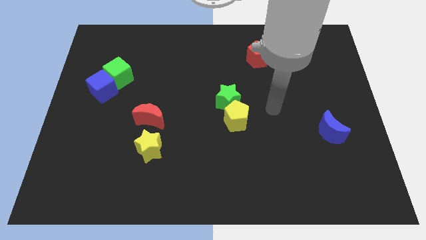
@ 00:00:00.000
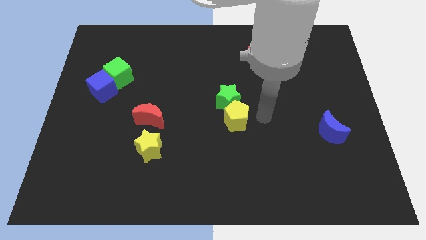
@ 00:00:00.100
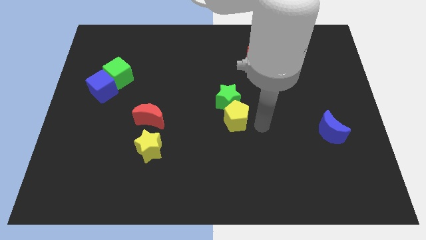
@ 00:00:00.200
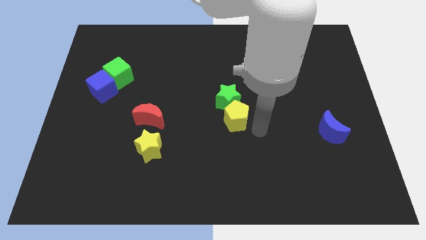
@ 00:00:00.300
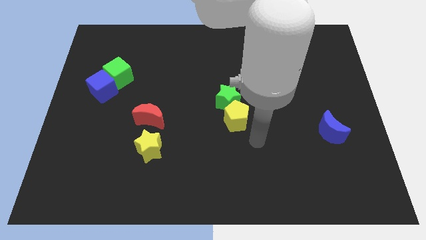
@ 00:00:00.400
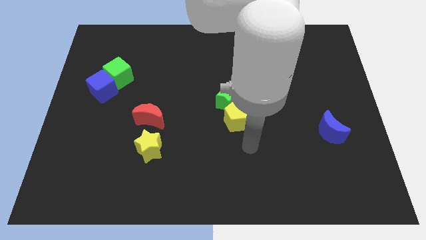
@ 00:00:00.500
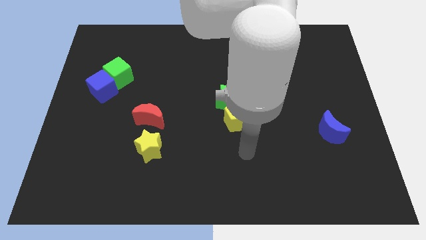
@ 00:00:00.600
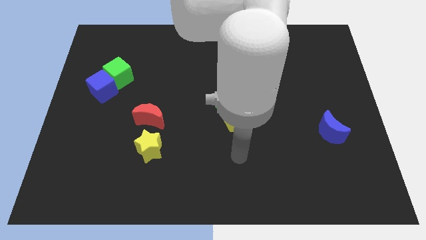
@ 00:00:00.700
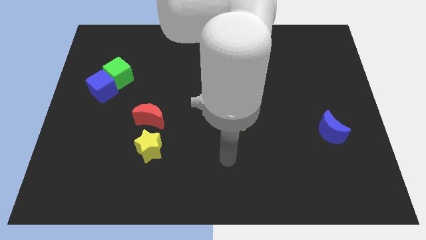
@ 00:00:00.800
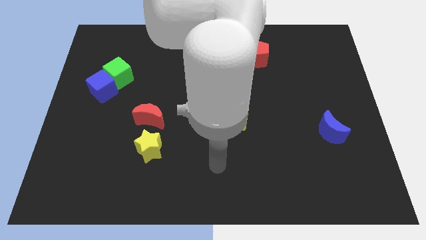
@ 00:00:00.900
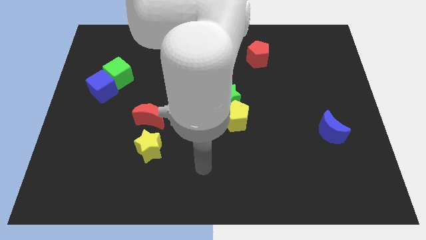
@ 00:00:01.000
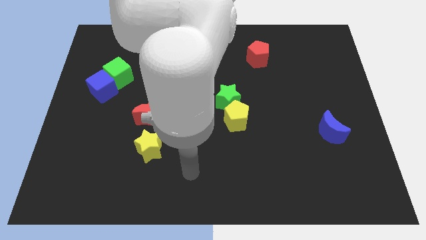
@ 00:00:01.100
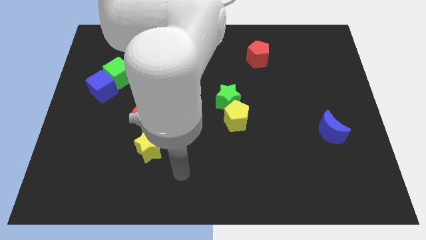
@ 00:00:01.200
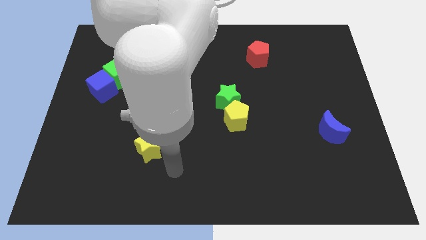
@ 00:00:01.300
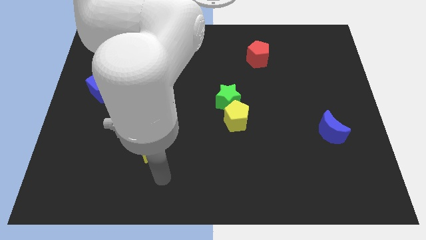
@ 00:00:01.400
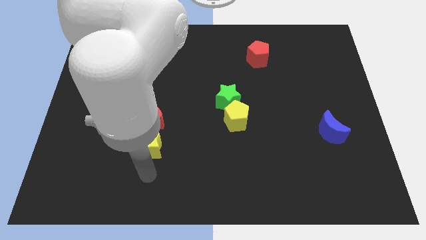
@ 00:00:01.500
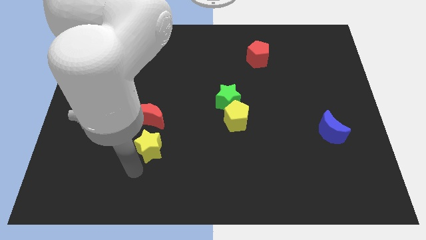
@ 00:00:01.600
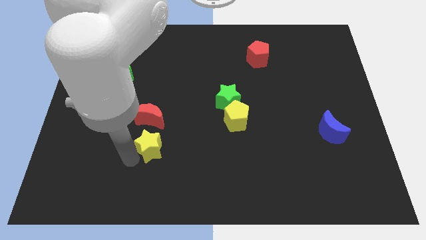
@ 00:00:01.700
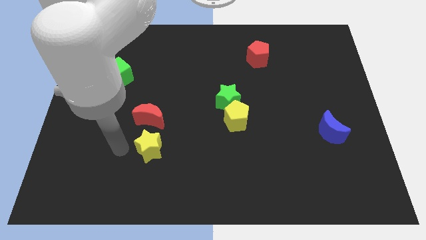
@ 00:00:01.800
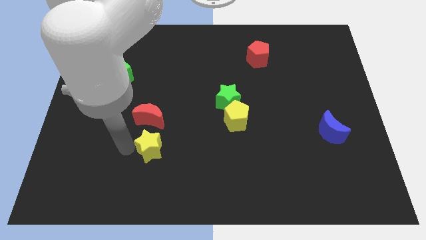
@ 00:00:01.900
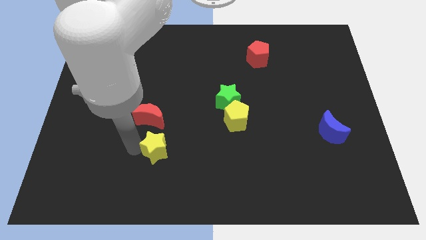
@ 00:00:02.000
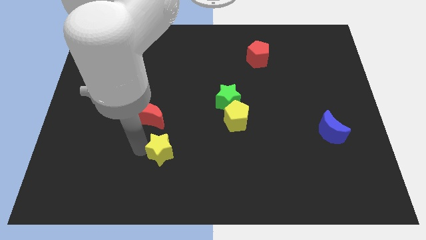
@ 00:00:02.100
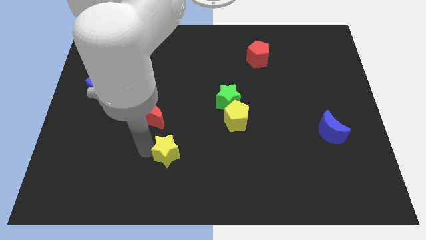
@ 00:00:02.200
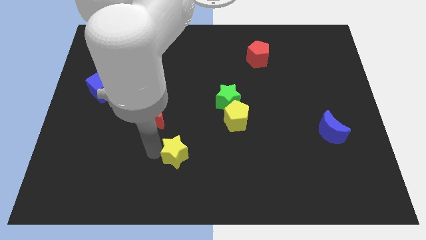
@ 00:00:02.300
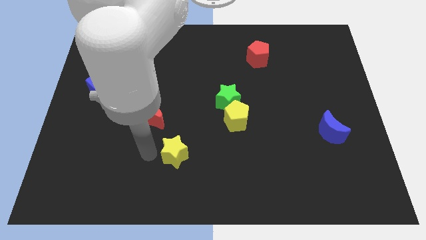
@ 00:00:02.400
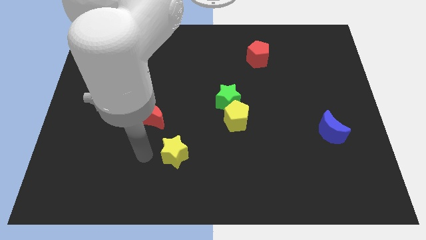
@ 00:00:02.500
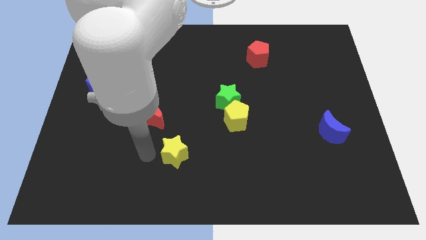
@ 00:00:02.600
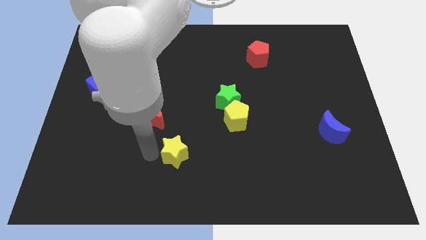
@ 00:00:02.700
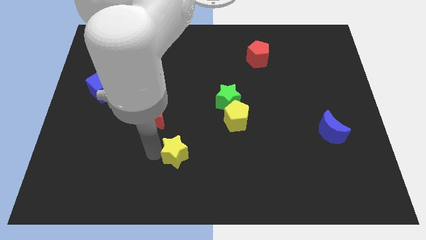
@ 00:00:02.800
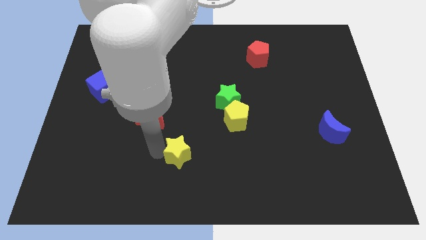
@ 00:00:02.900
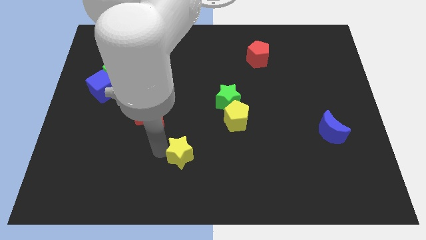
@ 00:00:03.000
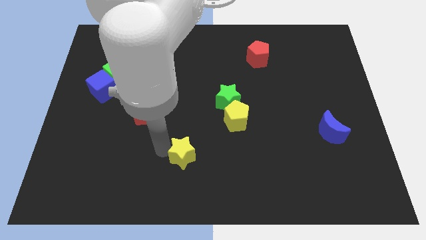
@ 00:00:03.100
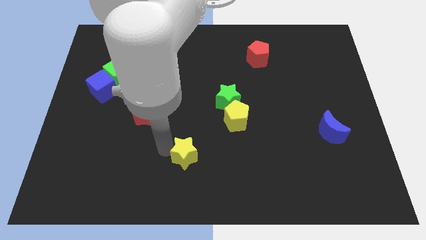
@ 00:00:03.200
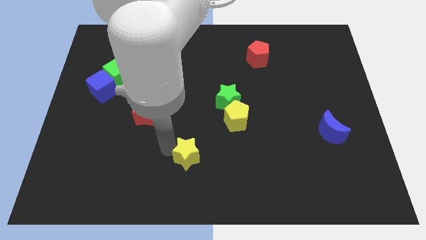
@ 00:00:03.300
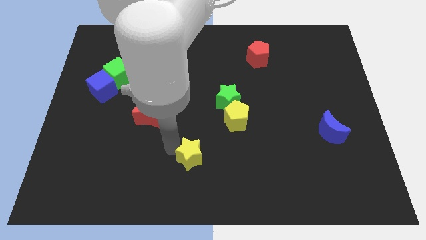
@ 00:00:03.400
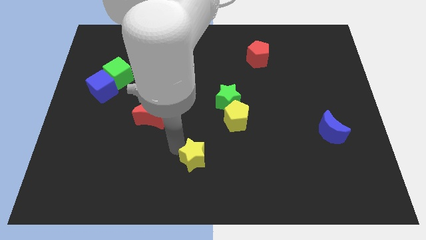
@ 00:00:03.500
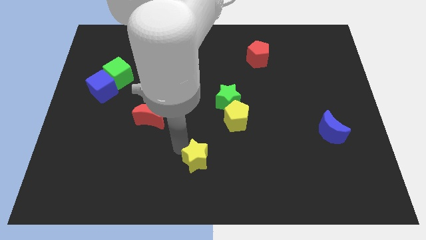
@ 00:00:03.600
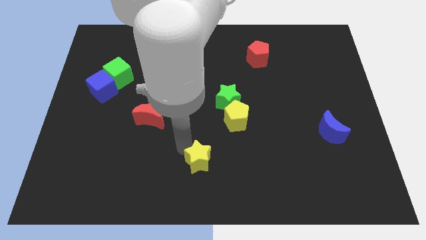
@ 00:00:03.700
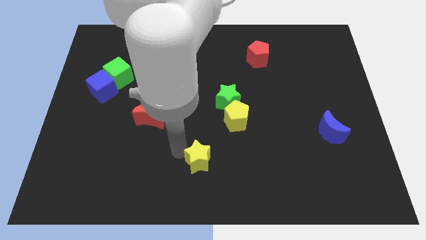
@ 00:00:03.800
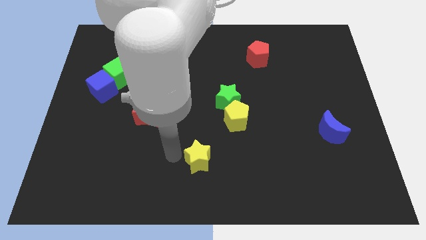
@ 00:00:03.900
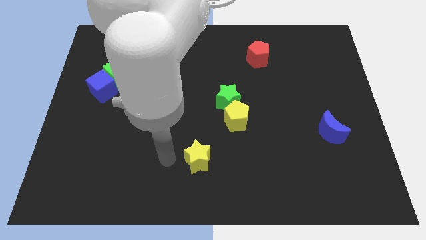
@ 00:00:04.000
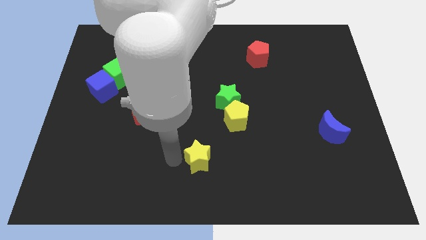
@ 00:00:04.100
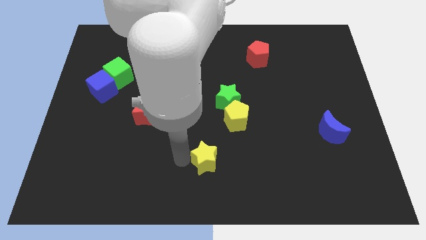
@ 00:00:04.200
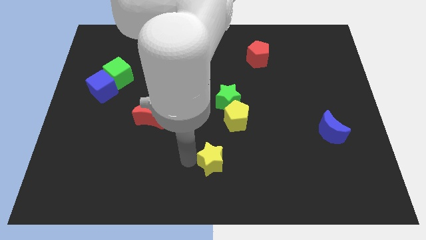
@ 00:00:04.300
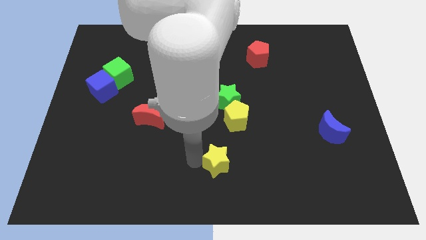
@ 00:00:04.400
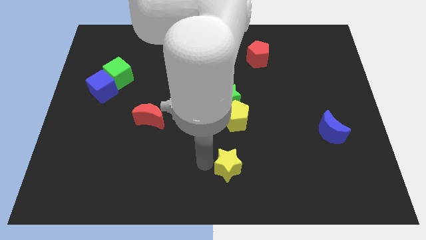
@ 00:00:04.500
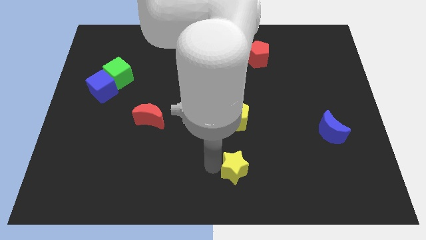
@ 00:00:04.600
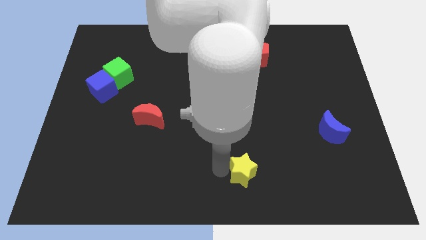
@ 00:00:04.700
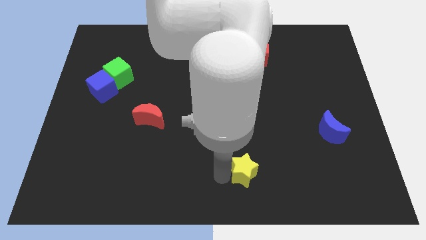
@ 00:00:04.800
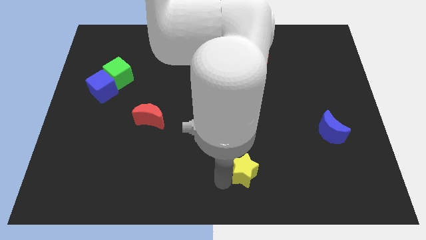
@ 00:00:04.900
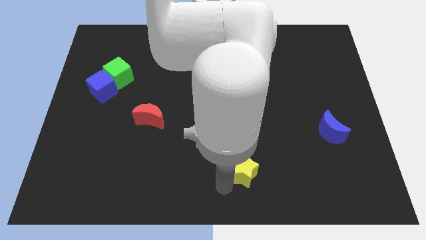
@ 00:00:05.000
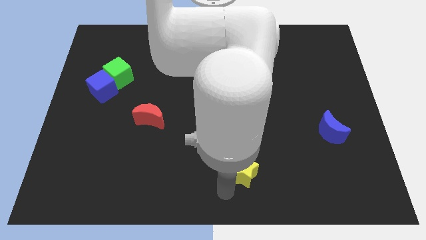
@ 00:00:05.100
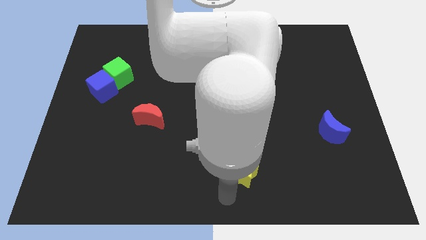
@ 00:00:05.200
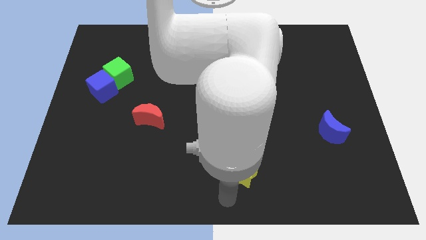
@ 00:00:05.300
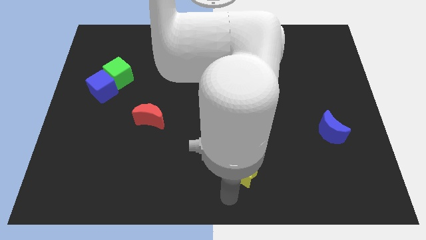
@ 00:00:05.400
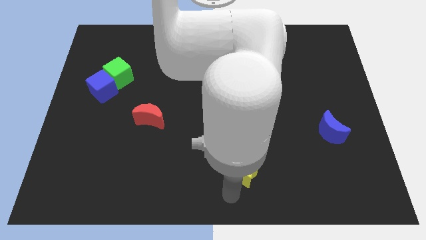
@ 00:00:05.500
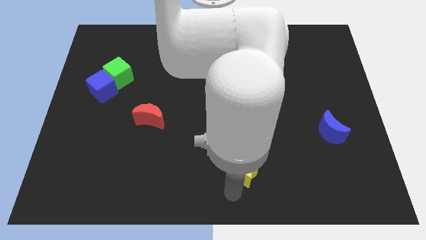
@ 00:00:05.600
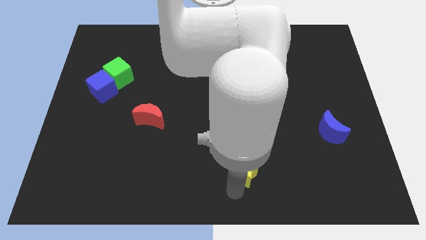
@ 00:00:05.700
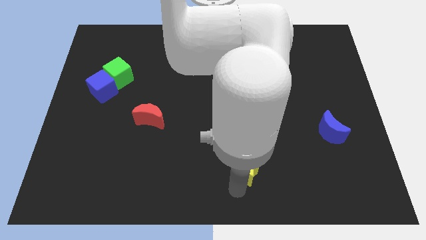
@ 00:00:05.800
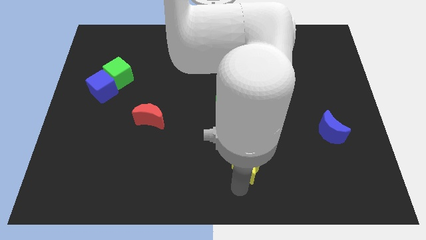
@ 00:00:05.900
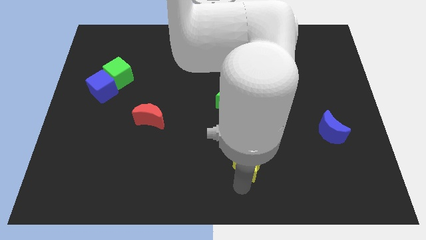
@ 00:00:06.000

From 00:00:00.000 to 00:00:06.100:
move the yellow star to the right

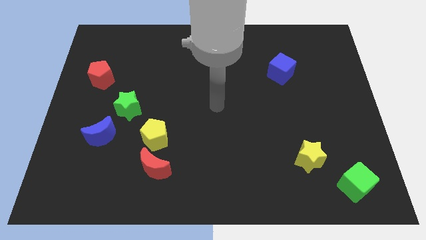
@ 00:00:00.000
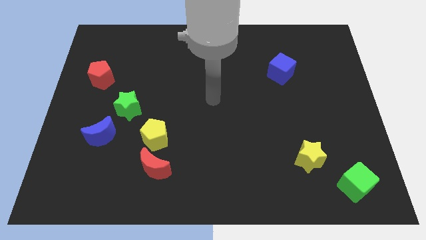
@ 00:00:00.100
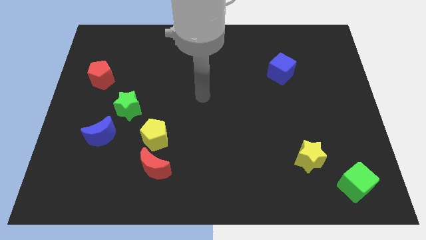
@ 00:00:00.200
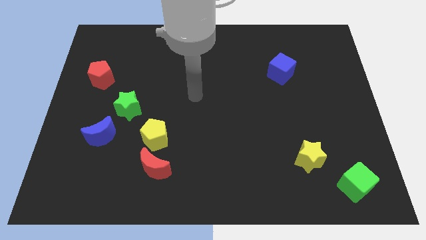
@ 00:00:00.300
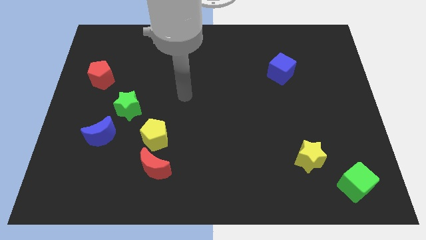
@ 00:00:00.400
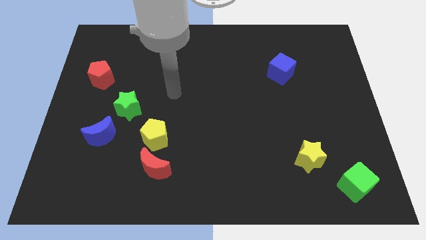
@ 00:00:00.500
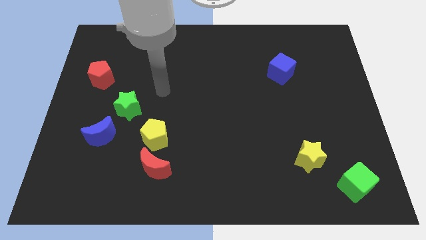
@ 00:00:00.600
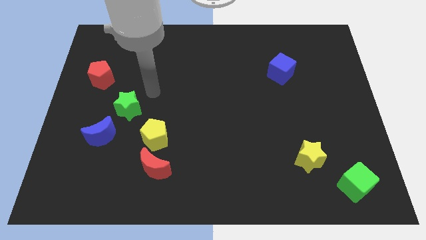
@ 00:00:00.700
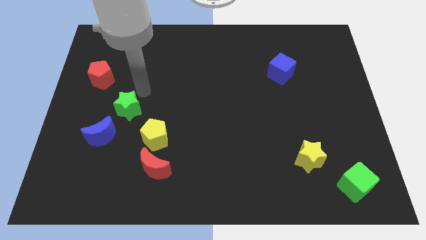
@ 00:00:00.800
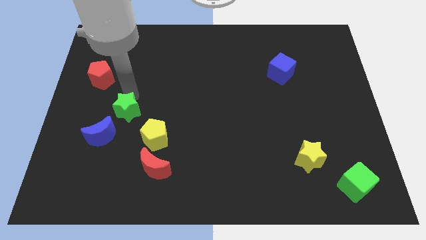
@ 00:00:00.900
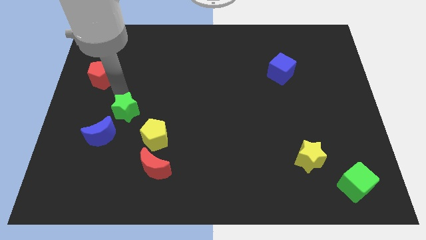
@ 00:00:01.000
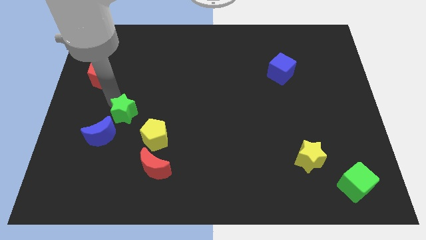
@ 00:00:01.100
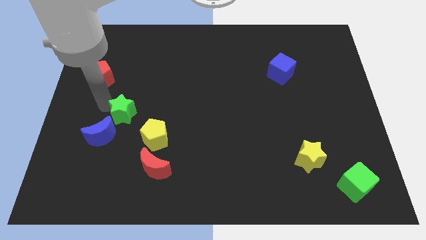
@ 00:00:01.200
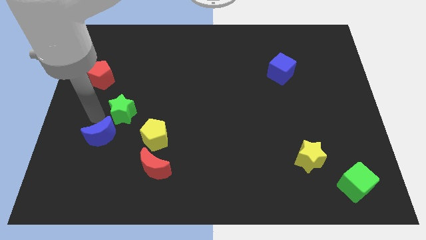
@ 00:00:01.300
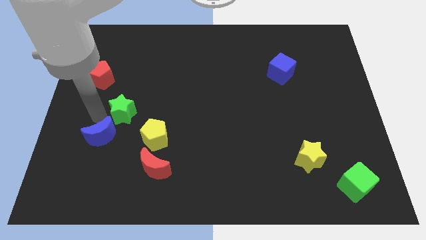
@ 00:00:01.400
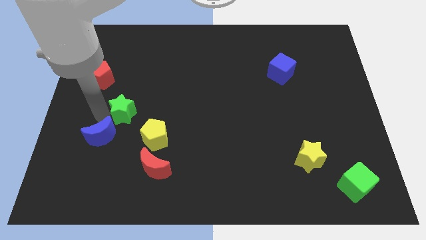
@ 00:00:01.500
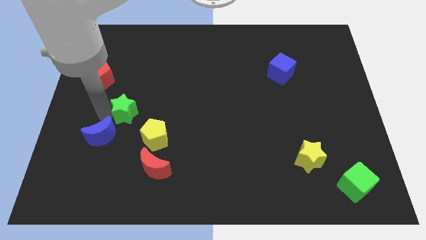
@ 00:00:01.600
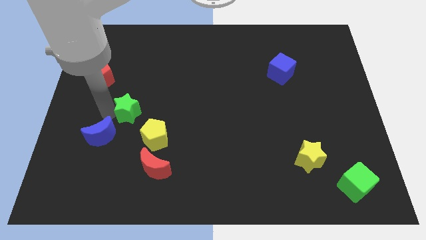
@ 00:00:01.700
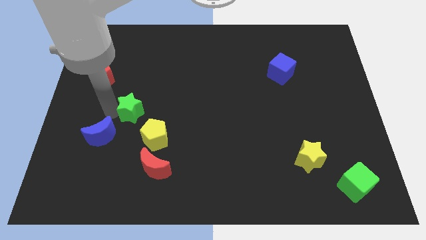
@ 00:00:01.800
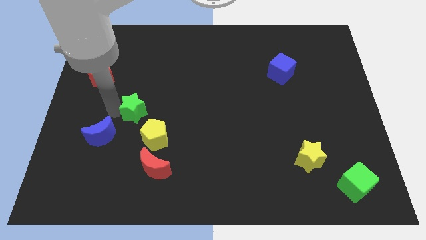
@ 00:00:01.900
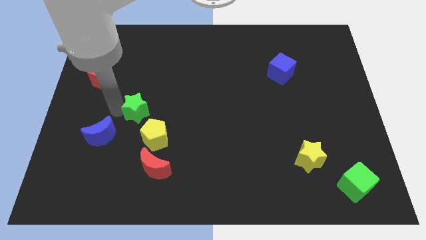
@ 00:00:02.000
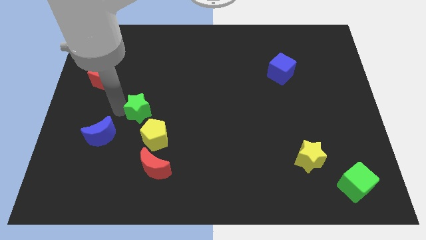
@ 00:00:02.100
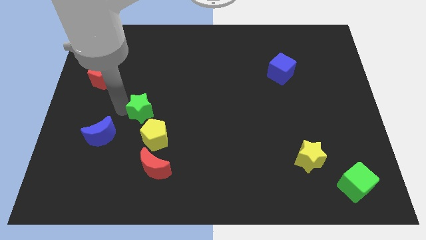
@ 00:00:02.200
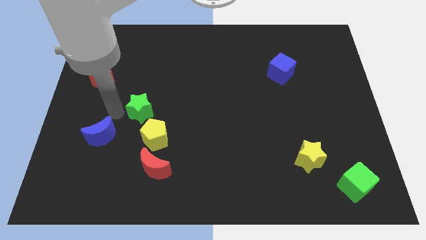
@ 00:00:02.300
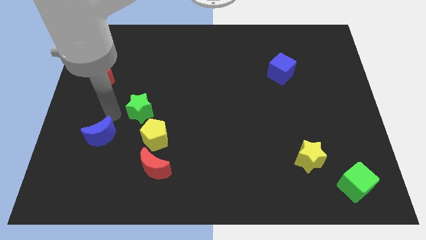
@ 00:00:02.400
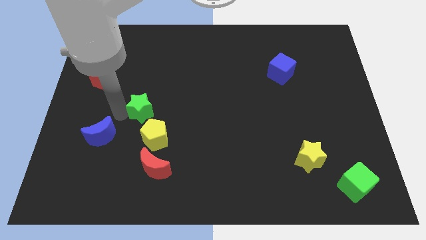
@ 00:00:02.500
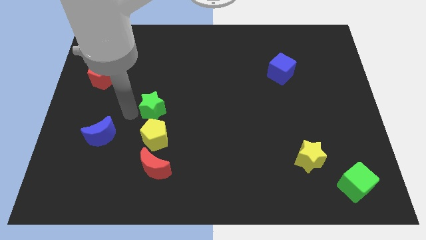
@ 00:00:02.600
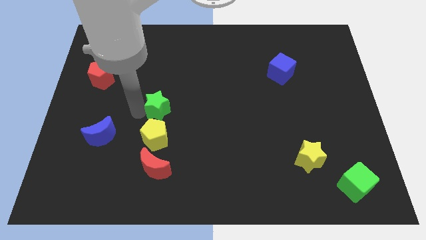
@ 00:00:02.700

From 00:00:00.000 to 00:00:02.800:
move the green star a little bit right
